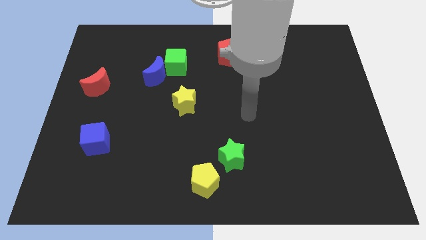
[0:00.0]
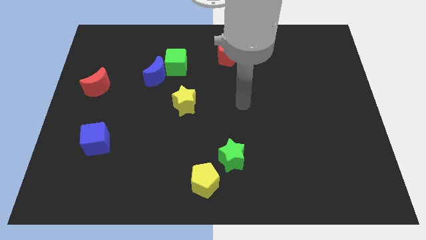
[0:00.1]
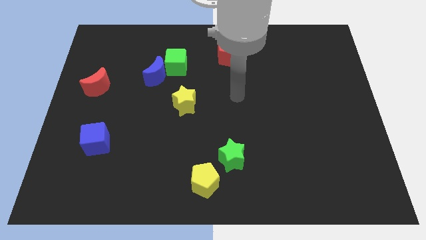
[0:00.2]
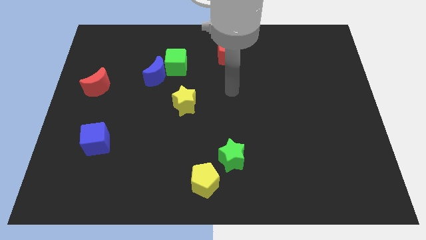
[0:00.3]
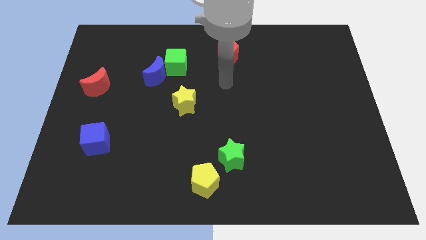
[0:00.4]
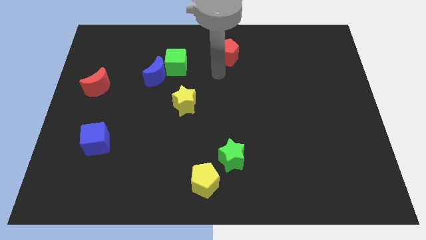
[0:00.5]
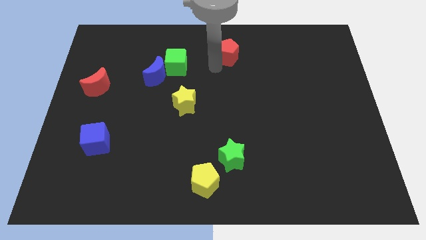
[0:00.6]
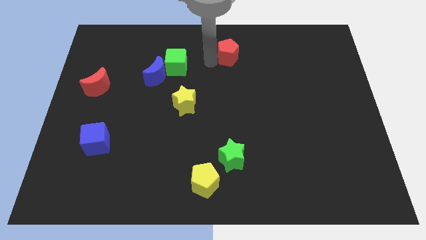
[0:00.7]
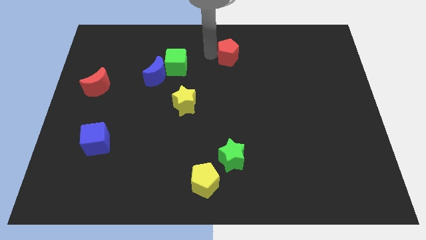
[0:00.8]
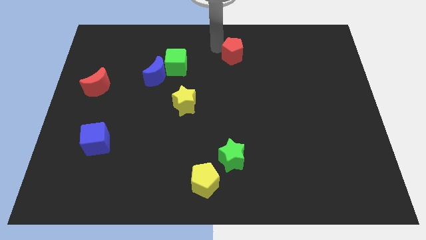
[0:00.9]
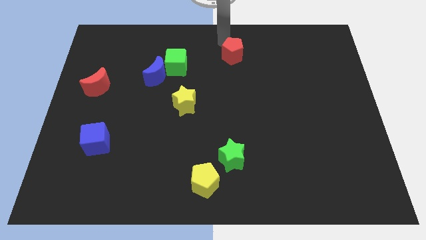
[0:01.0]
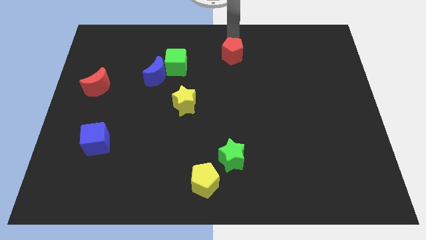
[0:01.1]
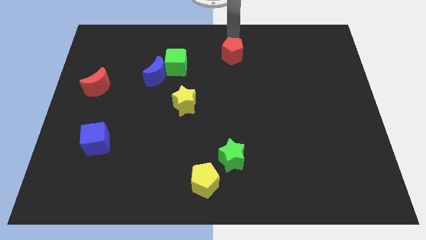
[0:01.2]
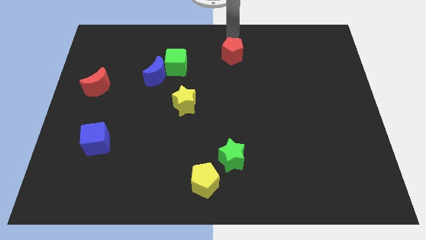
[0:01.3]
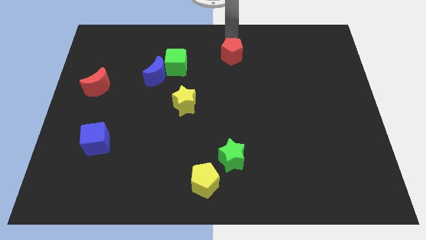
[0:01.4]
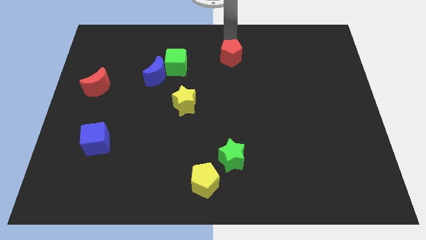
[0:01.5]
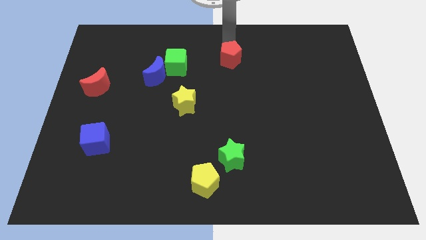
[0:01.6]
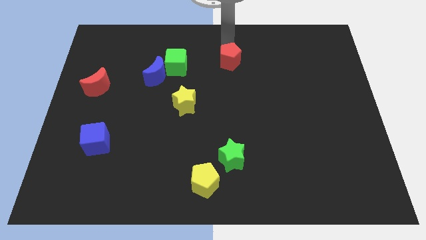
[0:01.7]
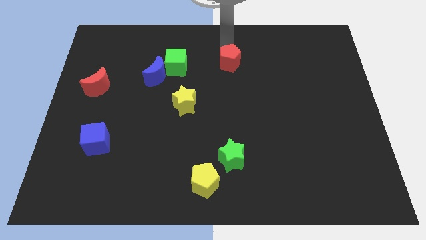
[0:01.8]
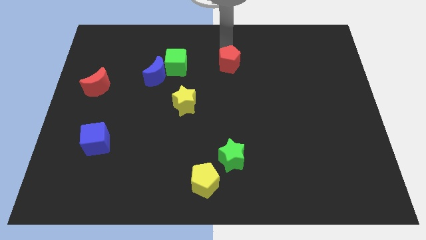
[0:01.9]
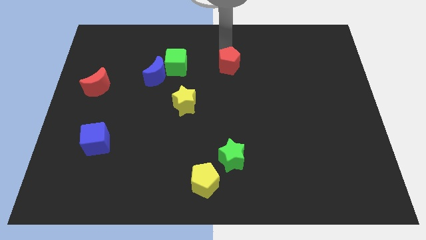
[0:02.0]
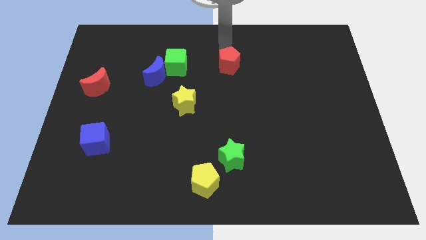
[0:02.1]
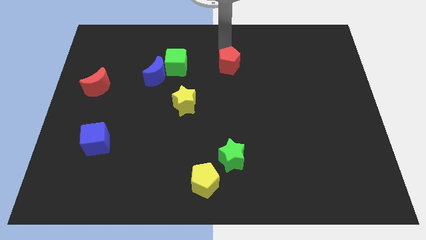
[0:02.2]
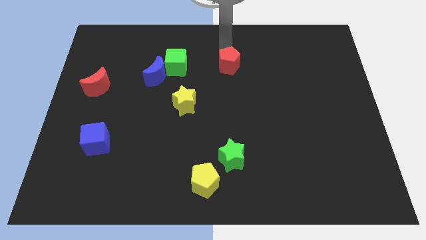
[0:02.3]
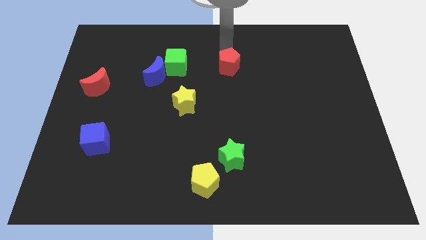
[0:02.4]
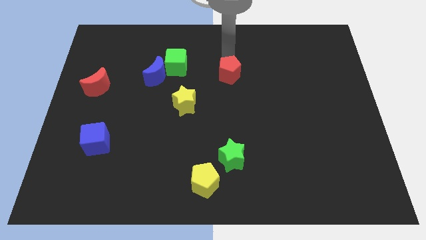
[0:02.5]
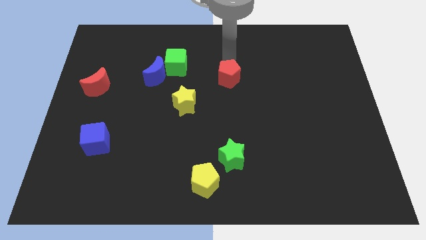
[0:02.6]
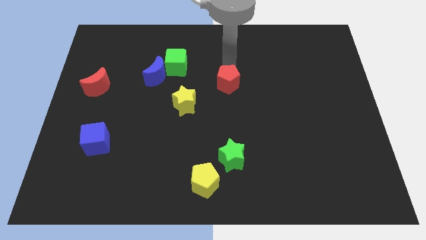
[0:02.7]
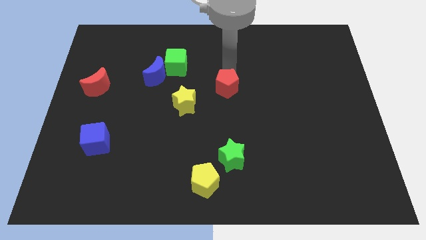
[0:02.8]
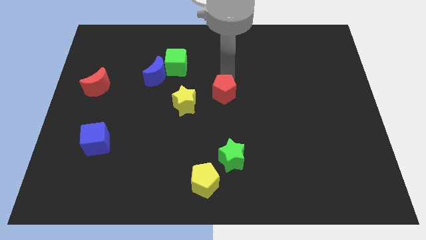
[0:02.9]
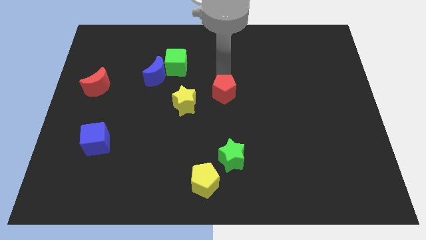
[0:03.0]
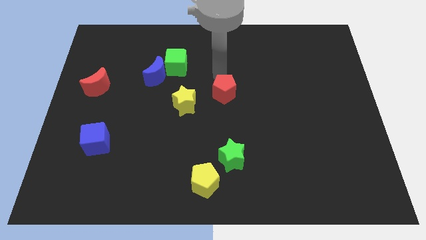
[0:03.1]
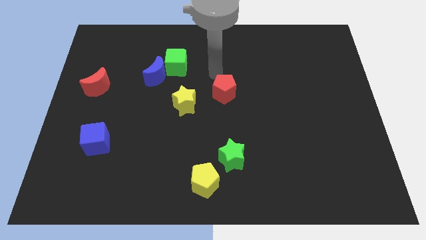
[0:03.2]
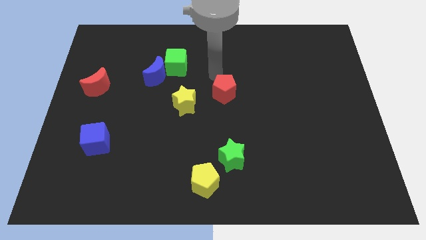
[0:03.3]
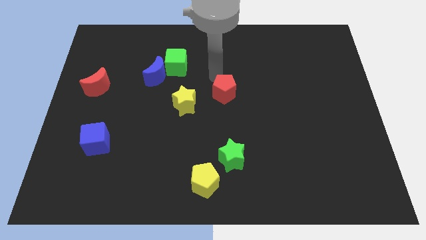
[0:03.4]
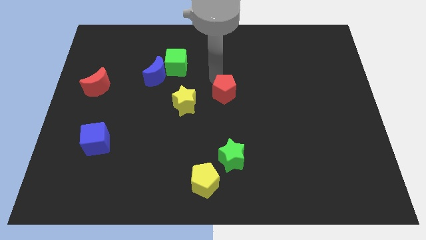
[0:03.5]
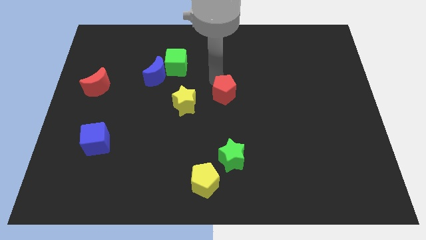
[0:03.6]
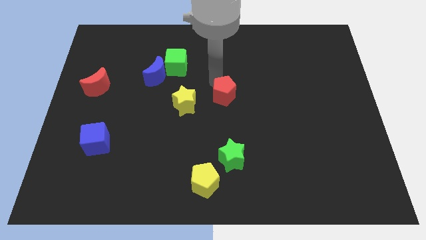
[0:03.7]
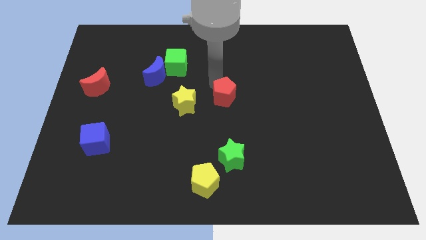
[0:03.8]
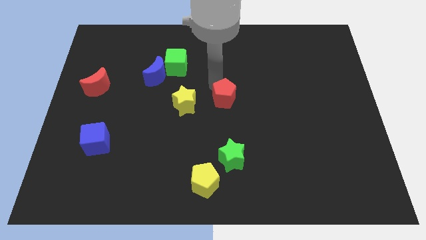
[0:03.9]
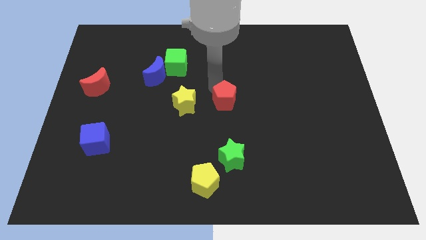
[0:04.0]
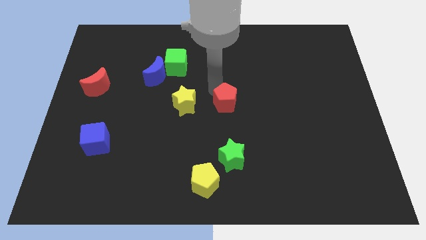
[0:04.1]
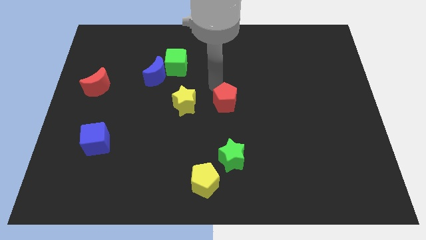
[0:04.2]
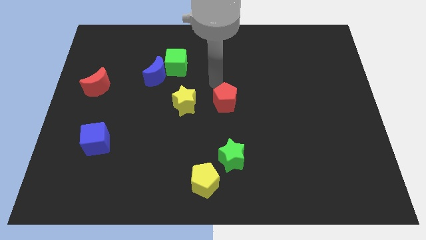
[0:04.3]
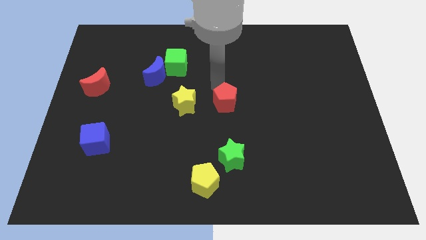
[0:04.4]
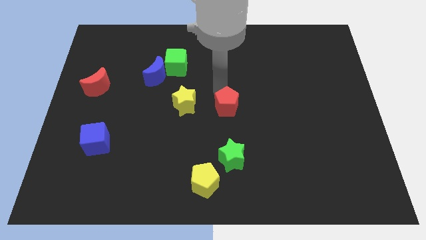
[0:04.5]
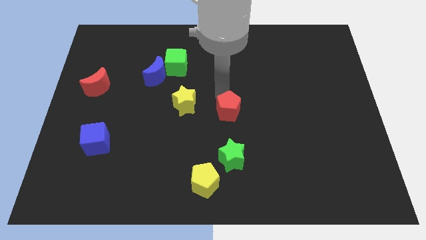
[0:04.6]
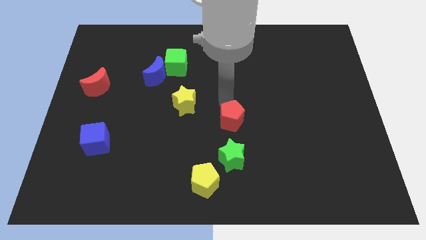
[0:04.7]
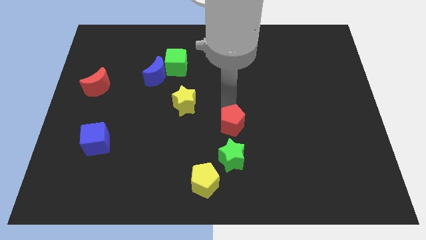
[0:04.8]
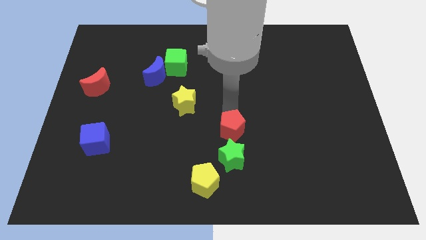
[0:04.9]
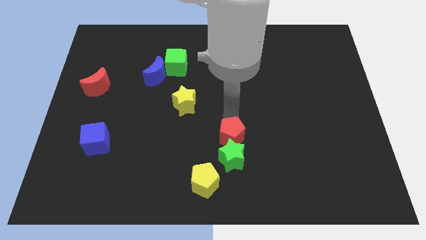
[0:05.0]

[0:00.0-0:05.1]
push the red pentagon towards the green star

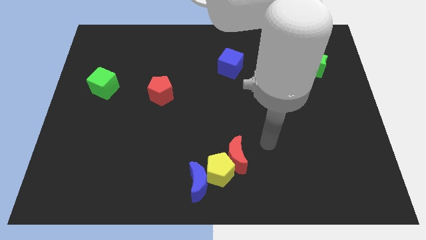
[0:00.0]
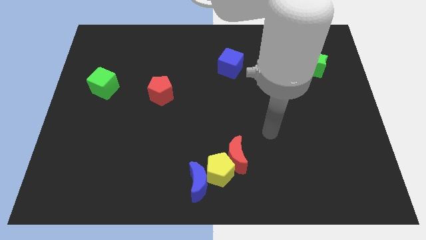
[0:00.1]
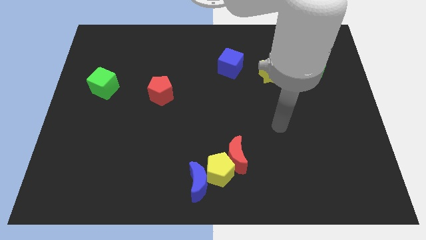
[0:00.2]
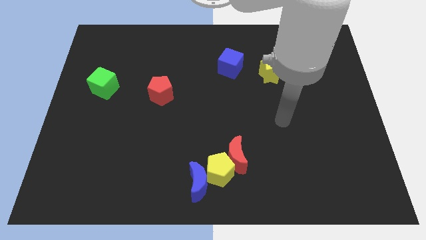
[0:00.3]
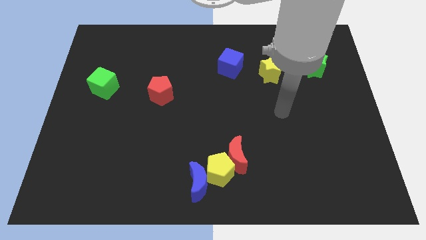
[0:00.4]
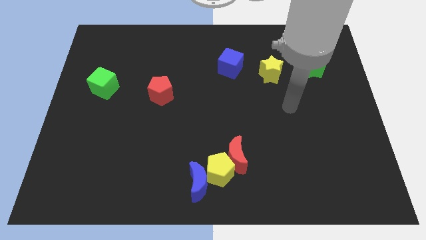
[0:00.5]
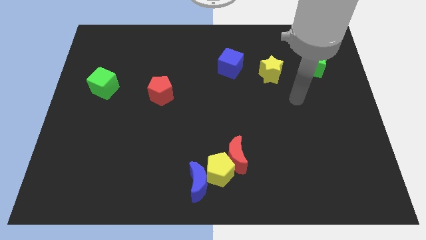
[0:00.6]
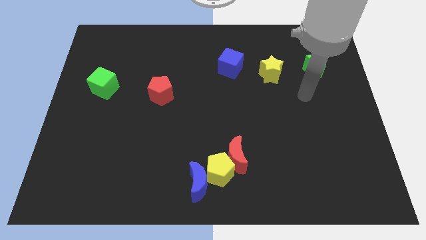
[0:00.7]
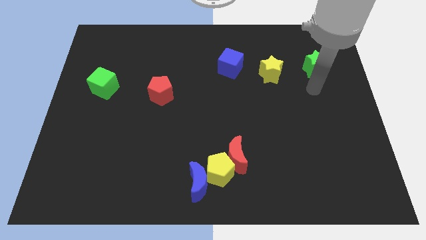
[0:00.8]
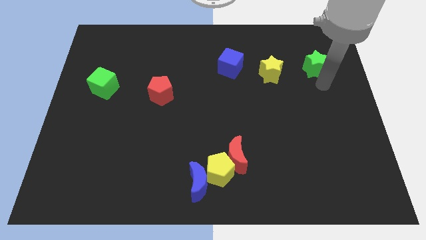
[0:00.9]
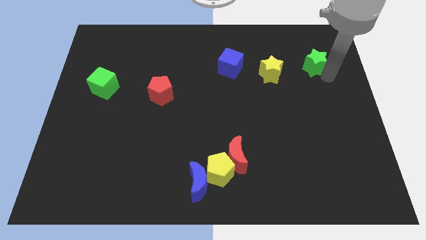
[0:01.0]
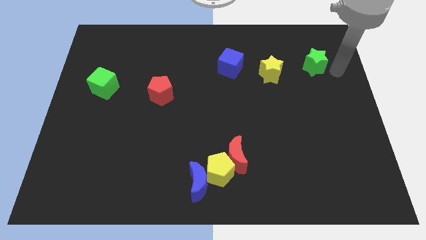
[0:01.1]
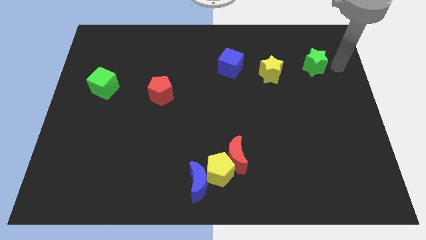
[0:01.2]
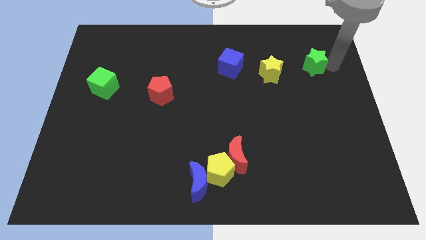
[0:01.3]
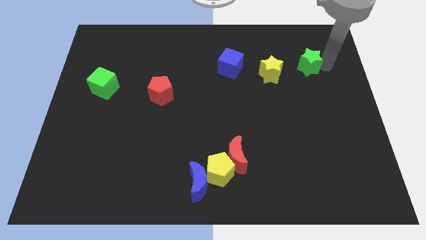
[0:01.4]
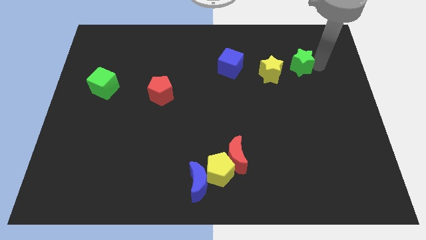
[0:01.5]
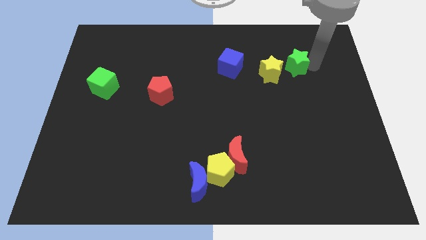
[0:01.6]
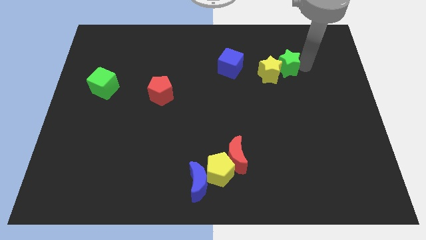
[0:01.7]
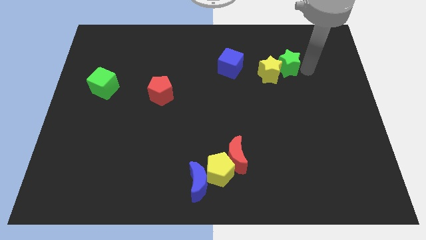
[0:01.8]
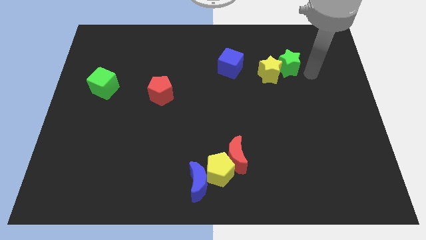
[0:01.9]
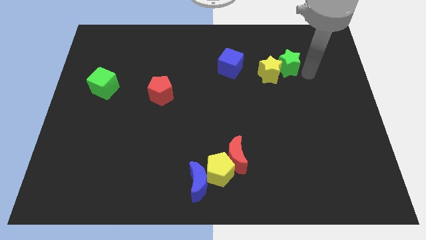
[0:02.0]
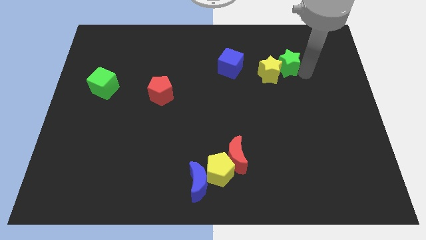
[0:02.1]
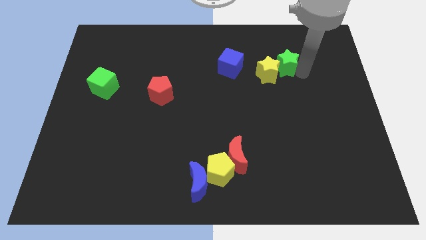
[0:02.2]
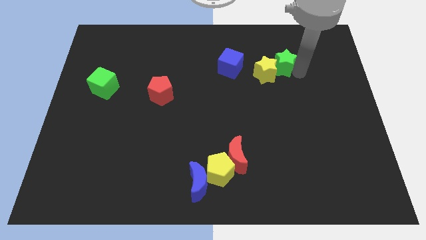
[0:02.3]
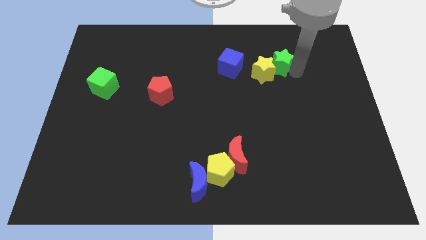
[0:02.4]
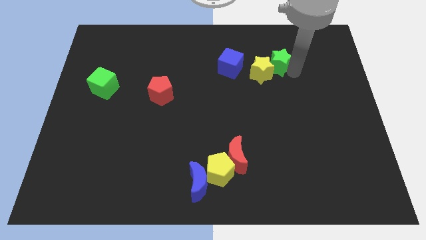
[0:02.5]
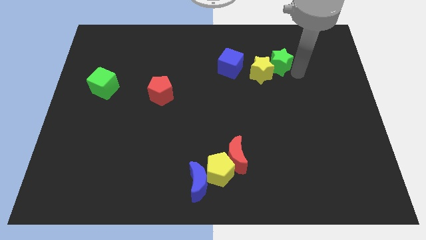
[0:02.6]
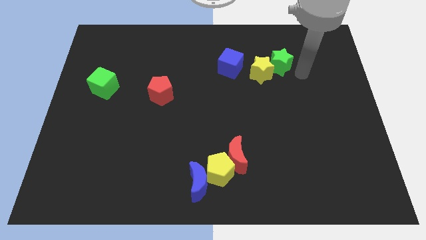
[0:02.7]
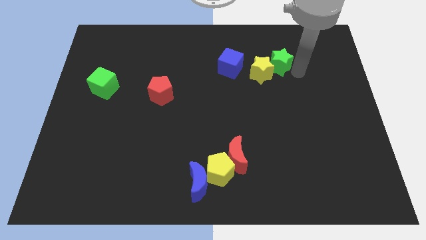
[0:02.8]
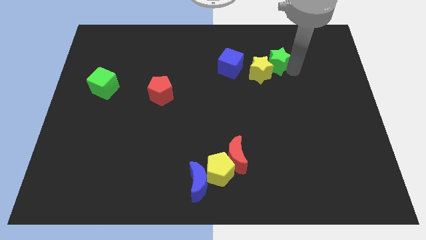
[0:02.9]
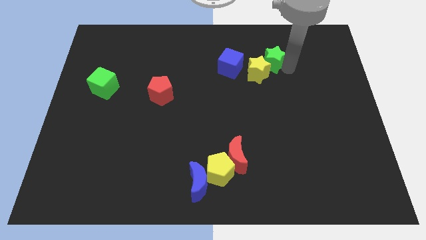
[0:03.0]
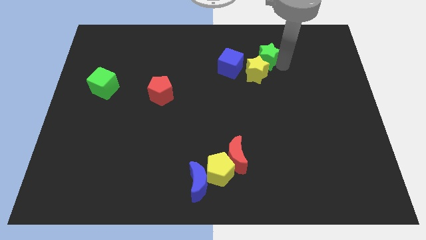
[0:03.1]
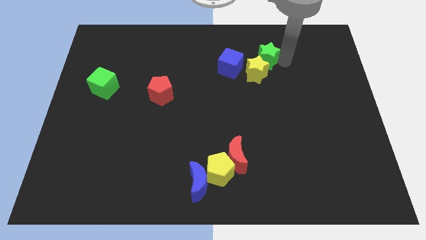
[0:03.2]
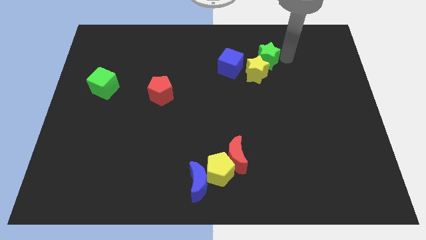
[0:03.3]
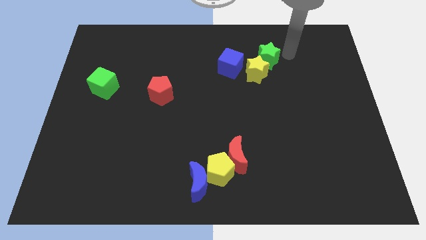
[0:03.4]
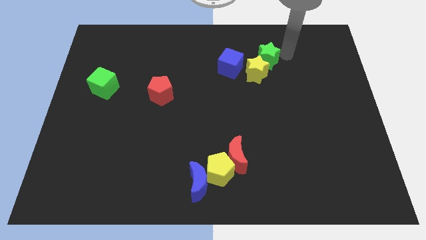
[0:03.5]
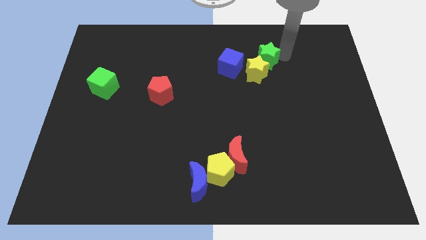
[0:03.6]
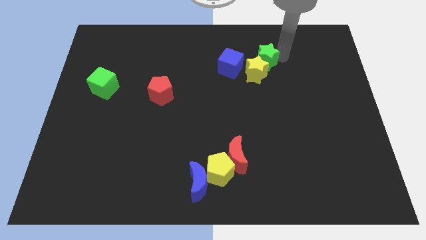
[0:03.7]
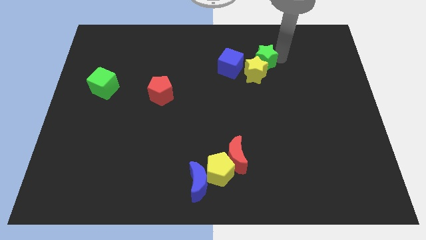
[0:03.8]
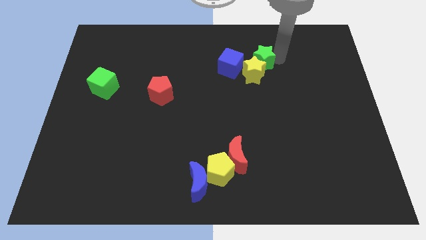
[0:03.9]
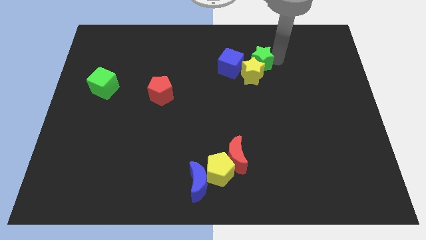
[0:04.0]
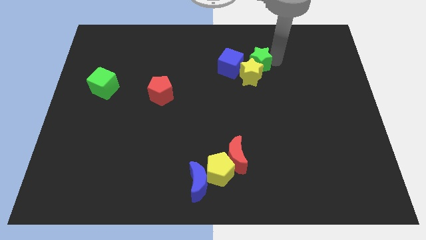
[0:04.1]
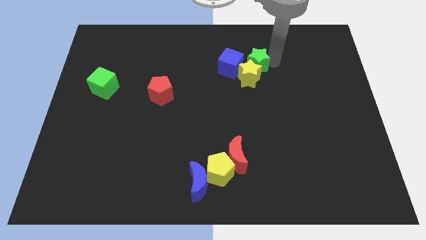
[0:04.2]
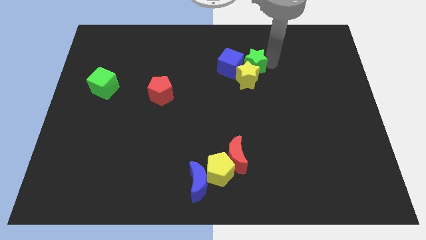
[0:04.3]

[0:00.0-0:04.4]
move the green star close to the blue cube
